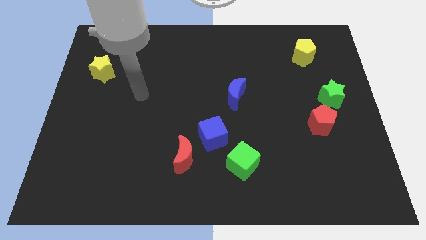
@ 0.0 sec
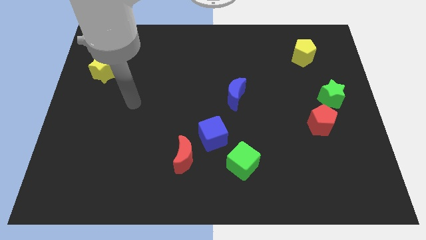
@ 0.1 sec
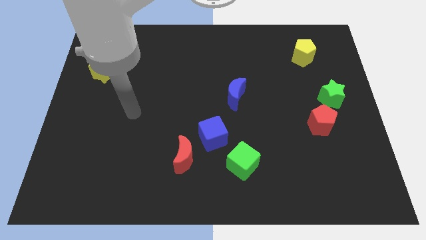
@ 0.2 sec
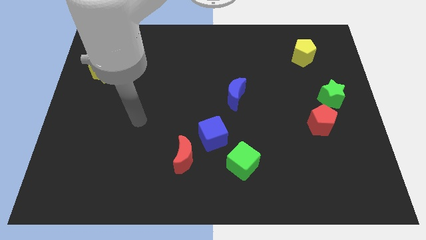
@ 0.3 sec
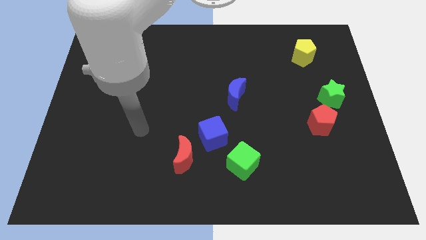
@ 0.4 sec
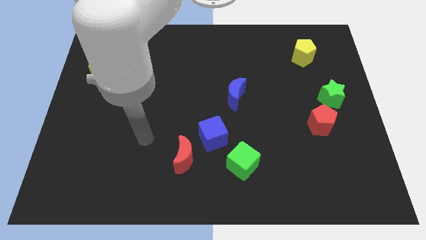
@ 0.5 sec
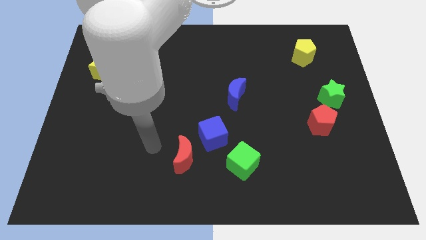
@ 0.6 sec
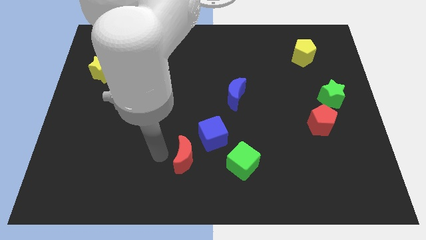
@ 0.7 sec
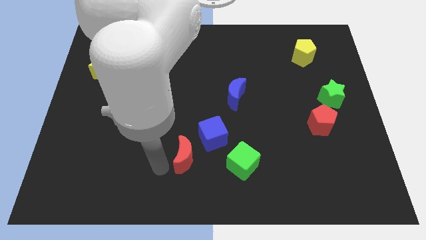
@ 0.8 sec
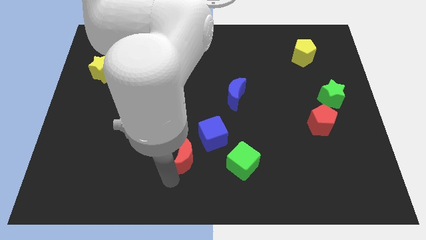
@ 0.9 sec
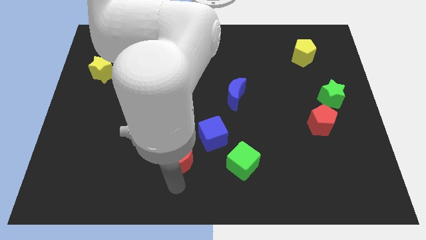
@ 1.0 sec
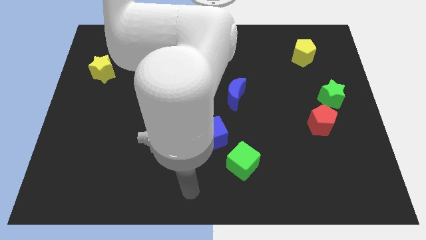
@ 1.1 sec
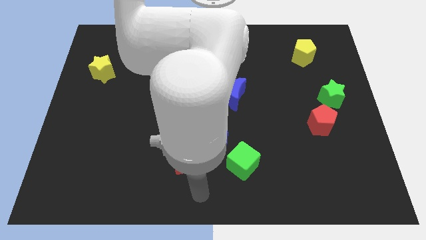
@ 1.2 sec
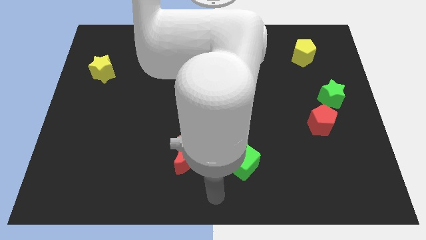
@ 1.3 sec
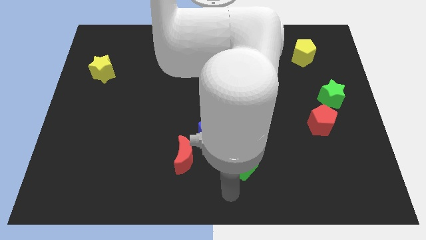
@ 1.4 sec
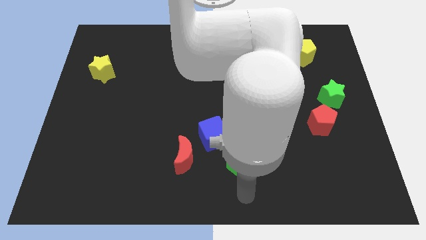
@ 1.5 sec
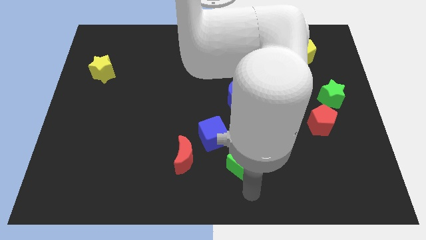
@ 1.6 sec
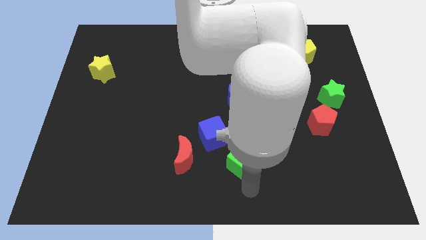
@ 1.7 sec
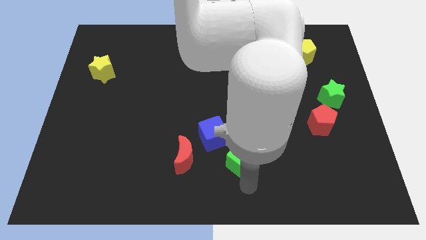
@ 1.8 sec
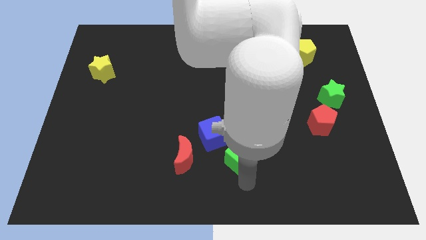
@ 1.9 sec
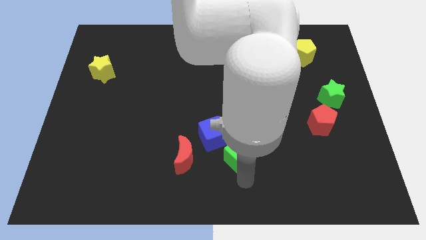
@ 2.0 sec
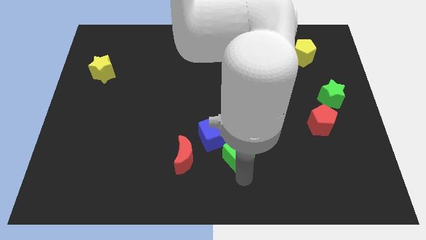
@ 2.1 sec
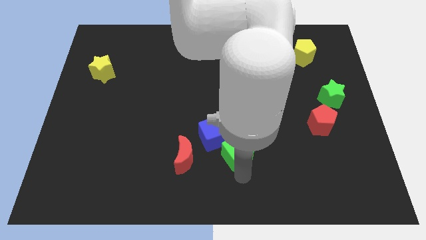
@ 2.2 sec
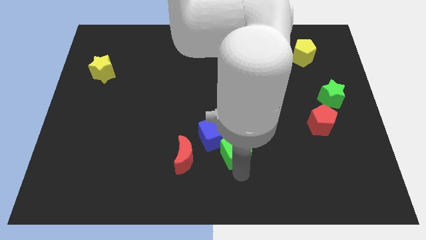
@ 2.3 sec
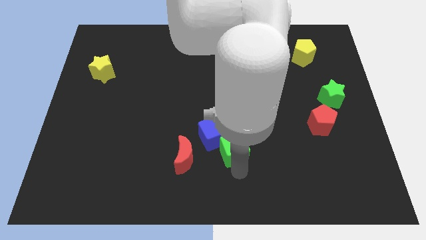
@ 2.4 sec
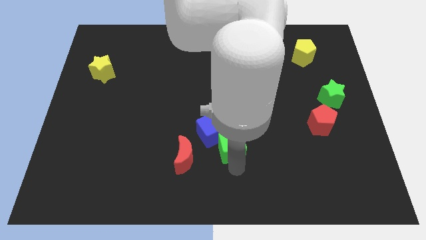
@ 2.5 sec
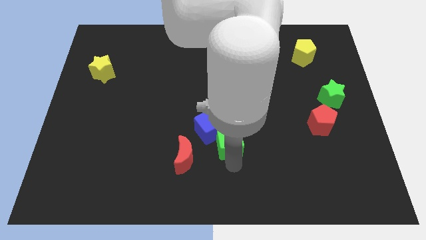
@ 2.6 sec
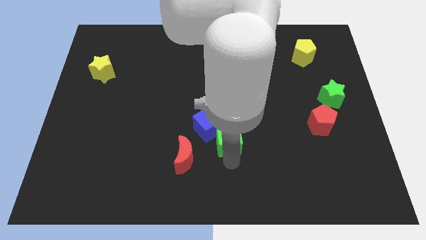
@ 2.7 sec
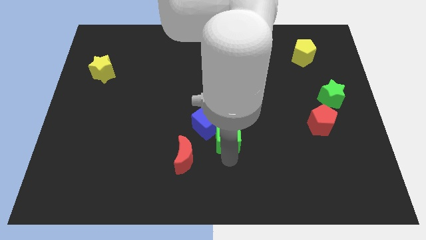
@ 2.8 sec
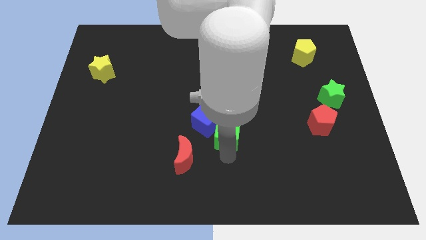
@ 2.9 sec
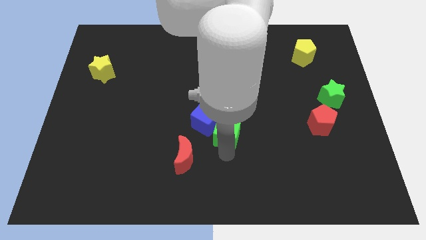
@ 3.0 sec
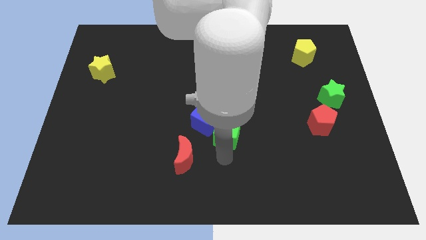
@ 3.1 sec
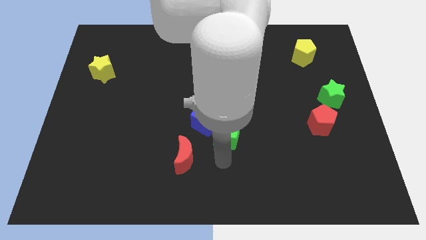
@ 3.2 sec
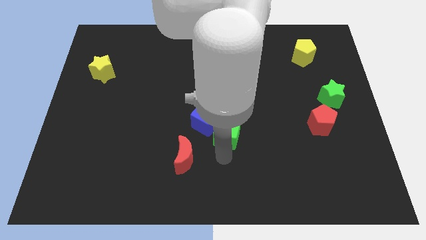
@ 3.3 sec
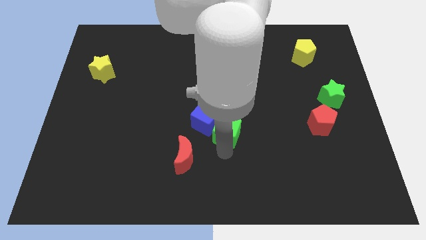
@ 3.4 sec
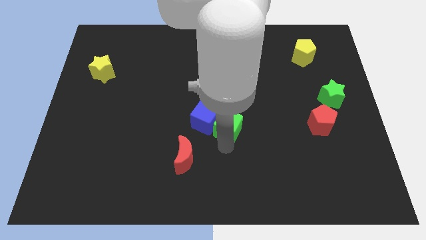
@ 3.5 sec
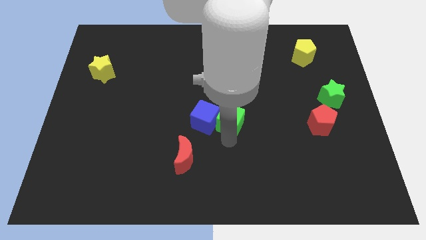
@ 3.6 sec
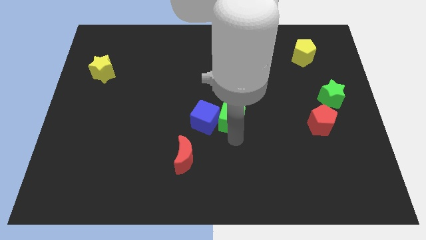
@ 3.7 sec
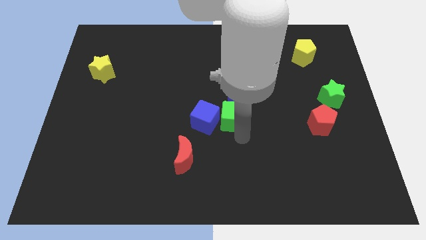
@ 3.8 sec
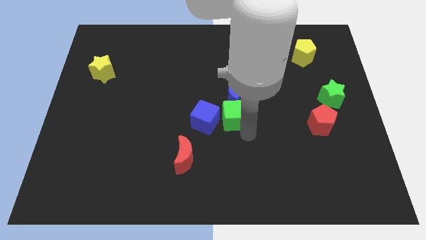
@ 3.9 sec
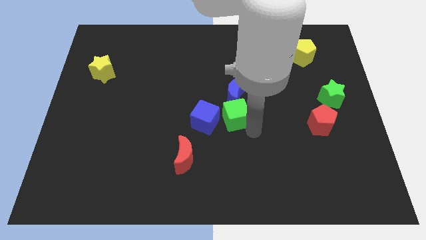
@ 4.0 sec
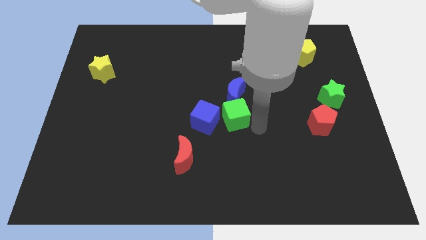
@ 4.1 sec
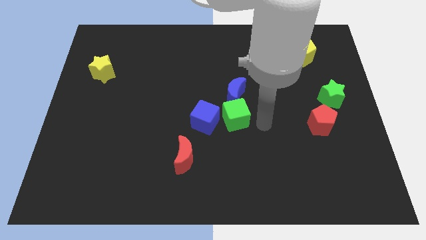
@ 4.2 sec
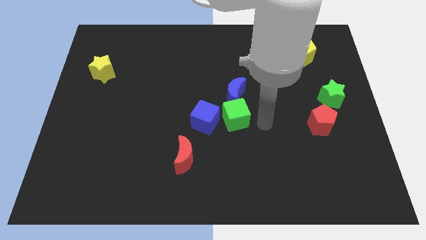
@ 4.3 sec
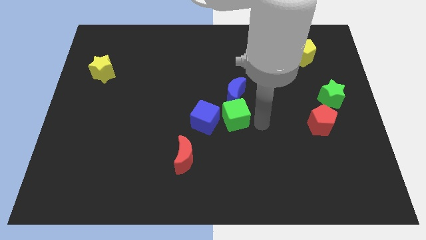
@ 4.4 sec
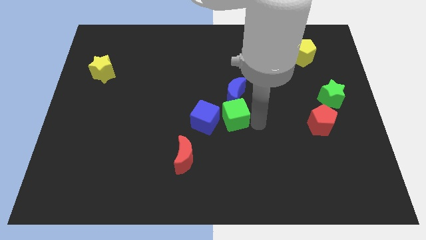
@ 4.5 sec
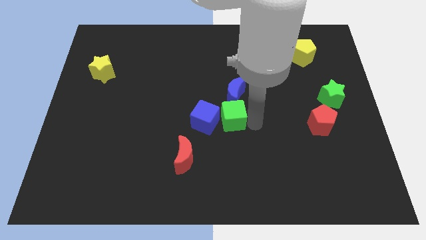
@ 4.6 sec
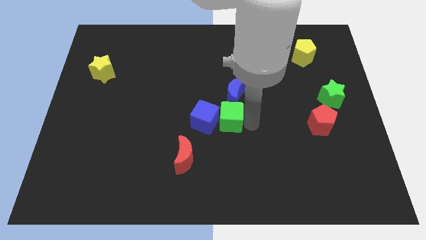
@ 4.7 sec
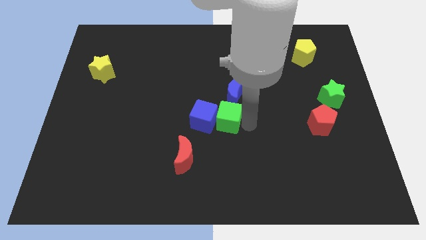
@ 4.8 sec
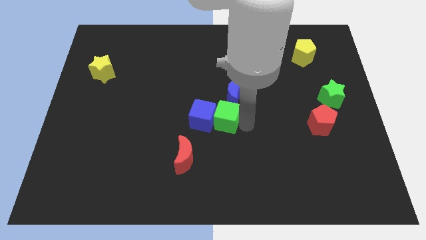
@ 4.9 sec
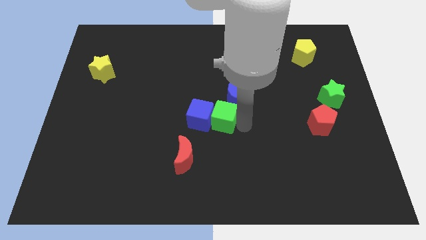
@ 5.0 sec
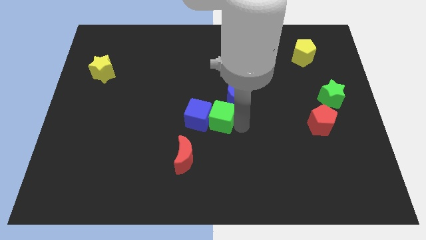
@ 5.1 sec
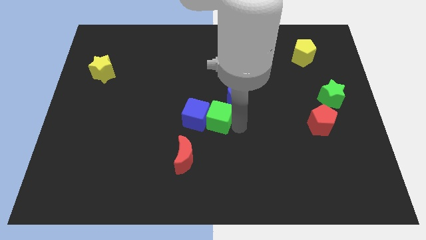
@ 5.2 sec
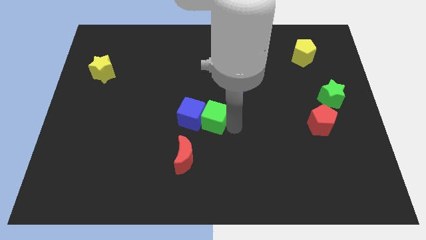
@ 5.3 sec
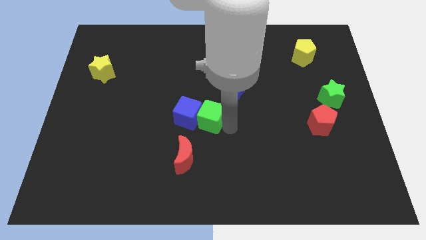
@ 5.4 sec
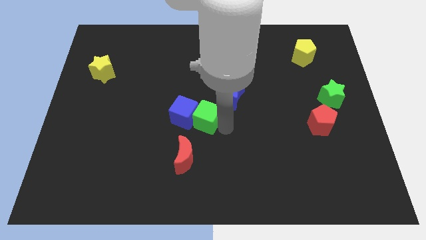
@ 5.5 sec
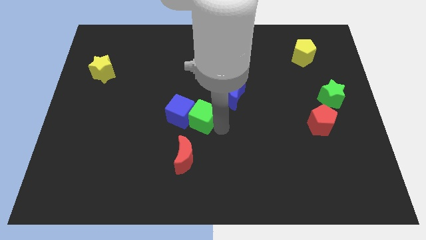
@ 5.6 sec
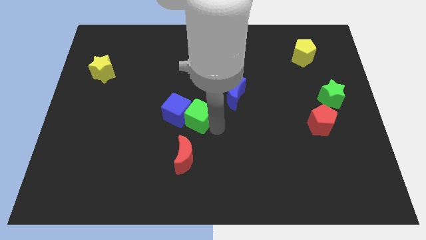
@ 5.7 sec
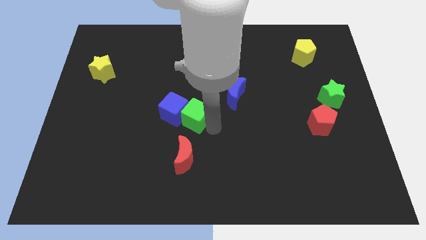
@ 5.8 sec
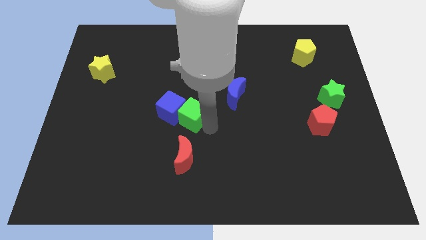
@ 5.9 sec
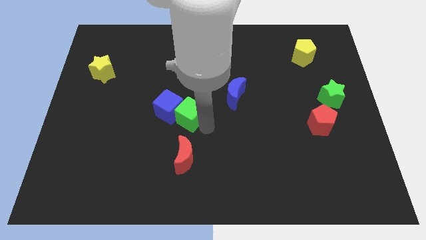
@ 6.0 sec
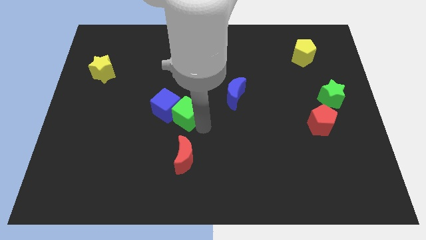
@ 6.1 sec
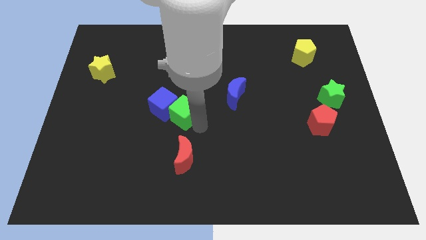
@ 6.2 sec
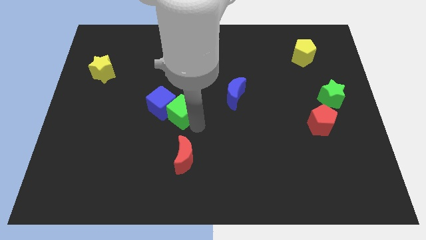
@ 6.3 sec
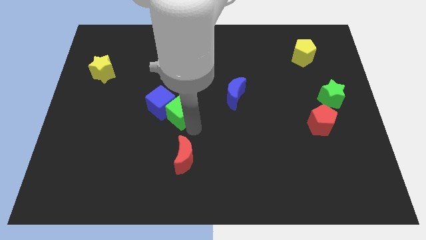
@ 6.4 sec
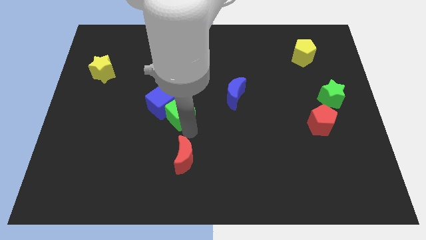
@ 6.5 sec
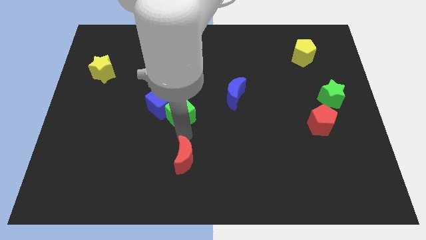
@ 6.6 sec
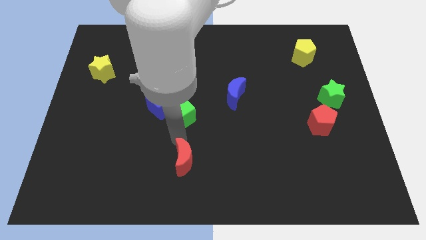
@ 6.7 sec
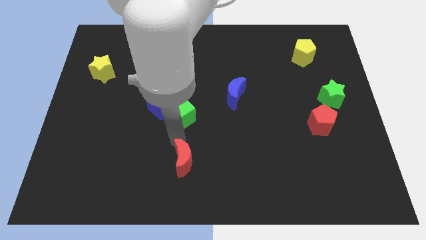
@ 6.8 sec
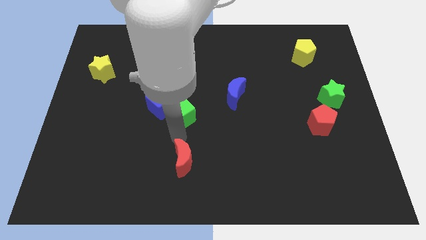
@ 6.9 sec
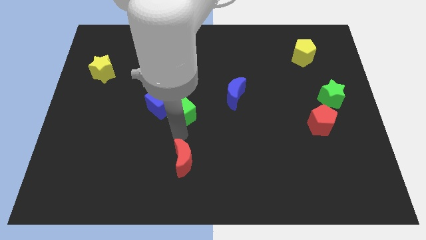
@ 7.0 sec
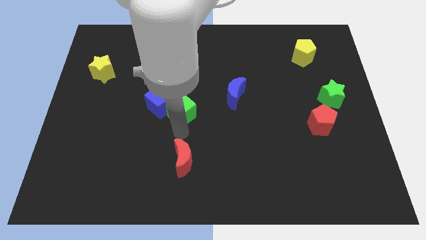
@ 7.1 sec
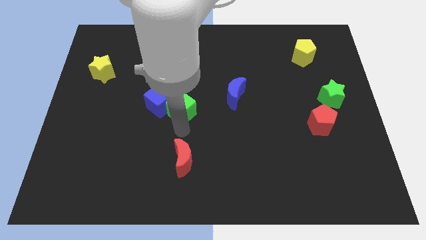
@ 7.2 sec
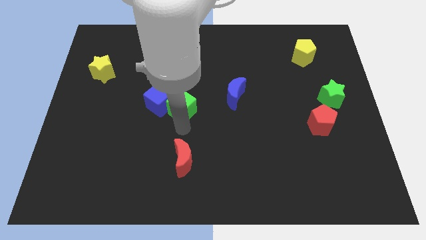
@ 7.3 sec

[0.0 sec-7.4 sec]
slide the green cube diagonally upwards and left

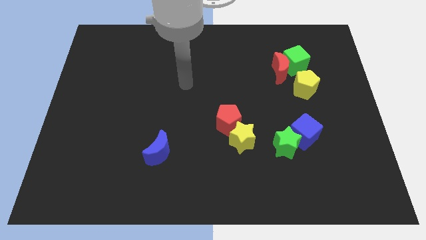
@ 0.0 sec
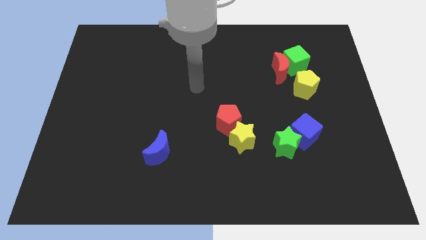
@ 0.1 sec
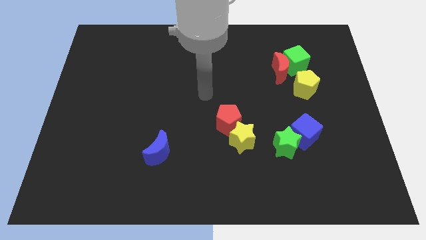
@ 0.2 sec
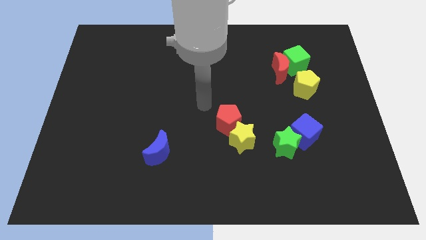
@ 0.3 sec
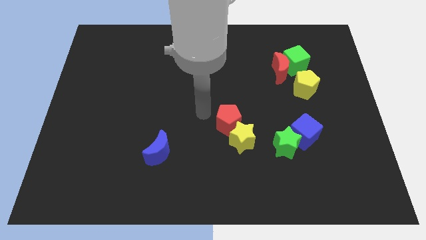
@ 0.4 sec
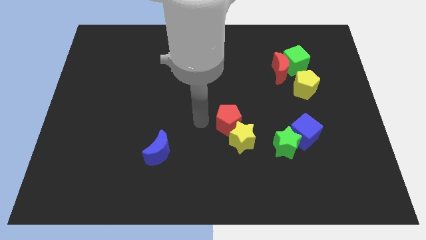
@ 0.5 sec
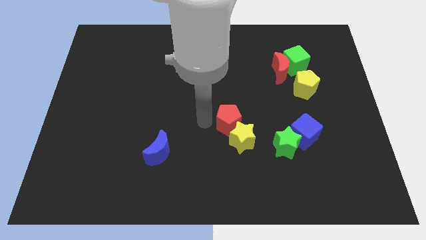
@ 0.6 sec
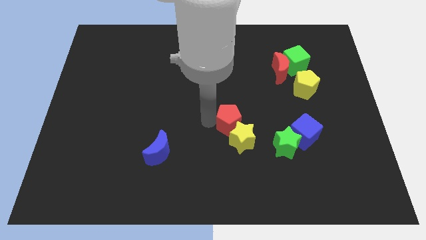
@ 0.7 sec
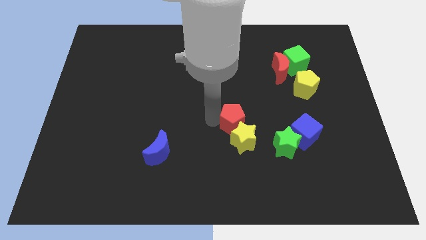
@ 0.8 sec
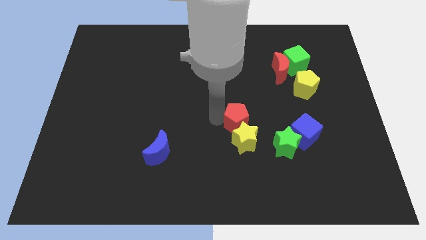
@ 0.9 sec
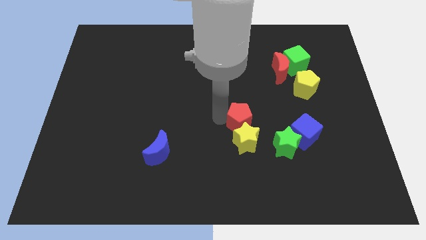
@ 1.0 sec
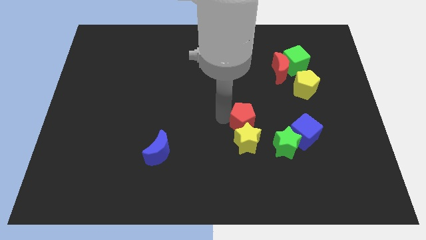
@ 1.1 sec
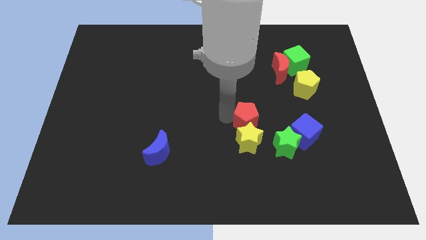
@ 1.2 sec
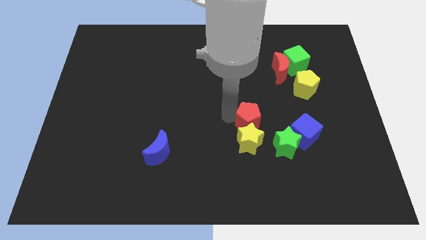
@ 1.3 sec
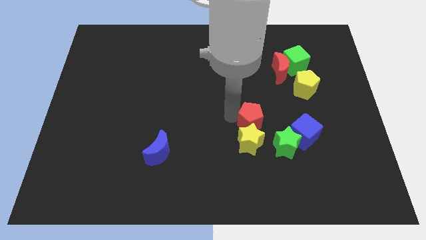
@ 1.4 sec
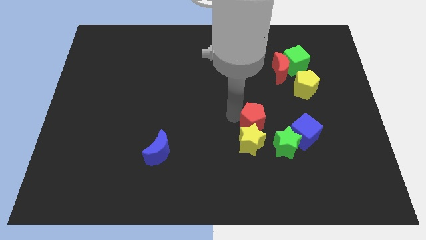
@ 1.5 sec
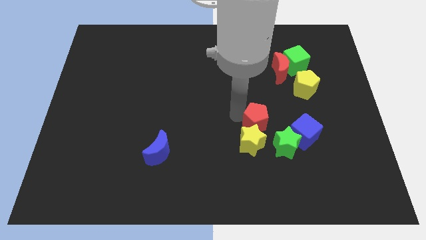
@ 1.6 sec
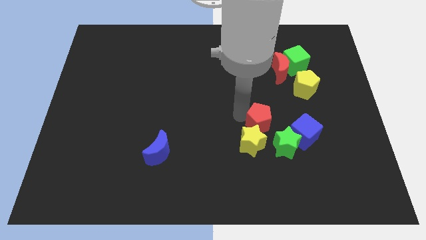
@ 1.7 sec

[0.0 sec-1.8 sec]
move the red pentagon to the right a little bit
